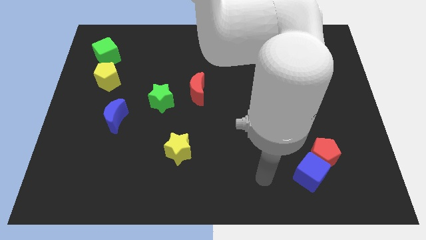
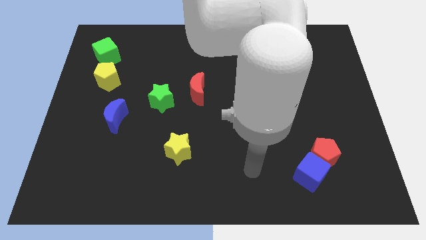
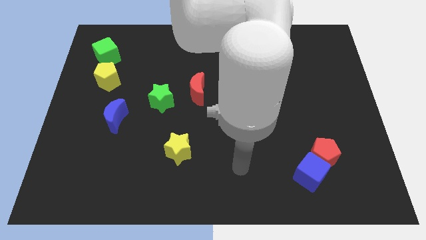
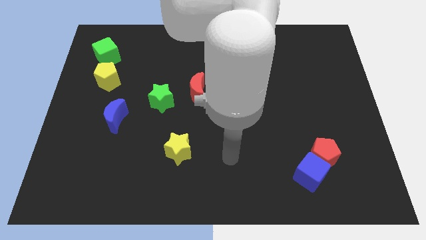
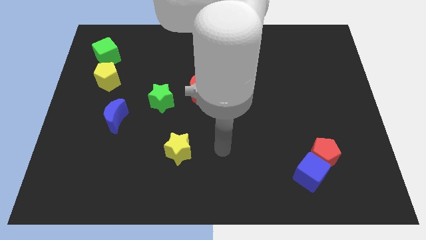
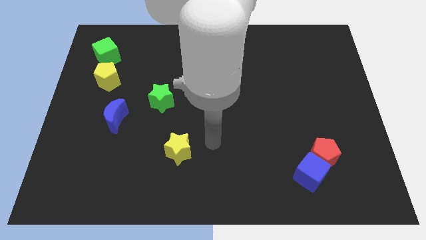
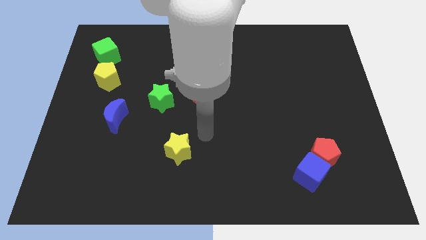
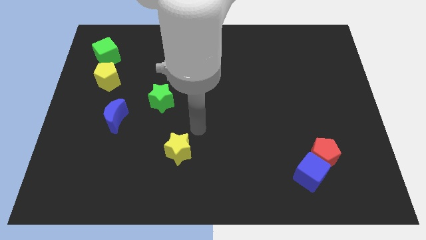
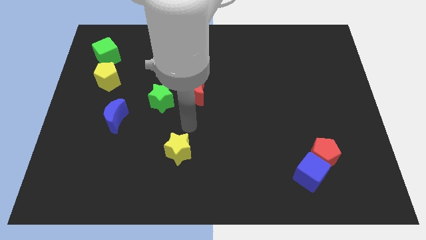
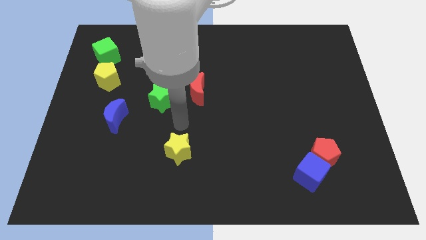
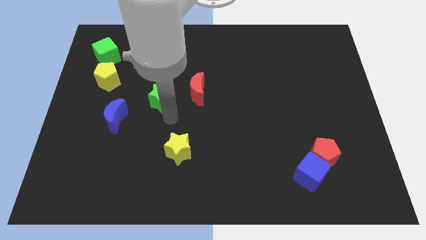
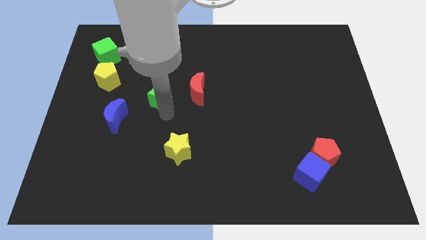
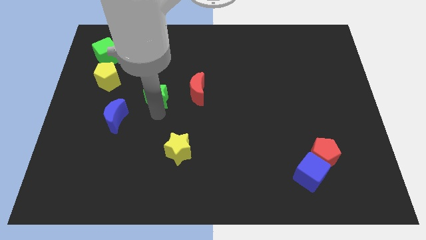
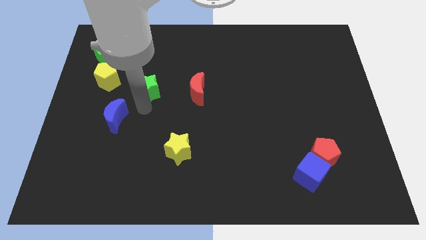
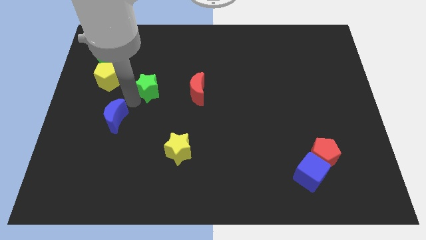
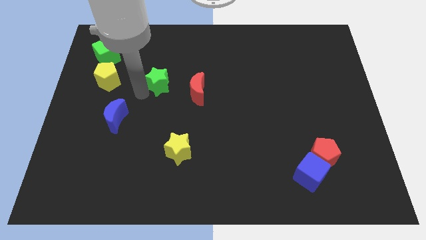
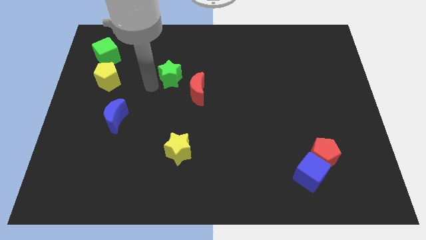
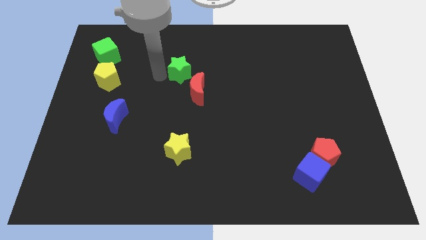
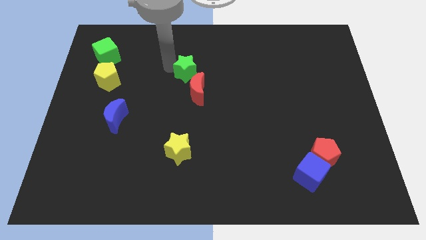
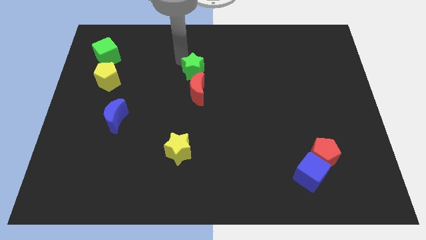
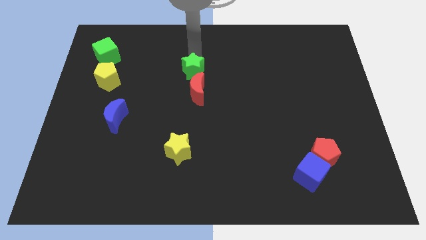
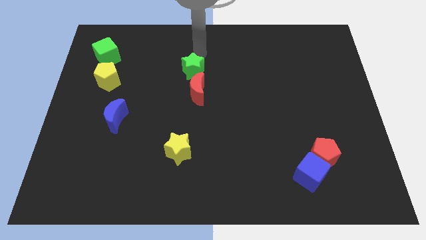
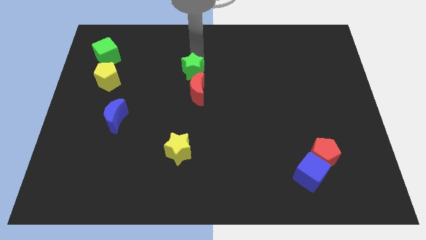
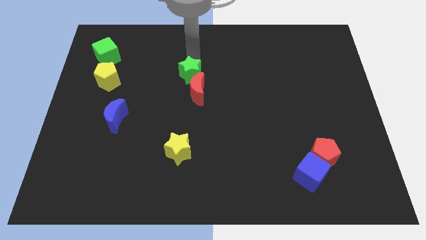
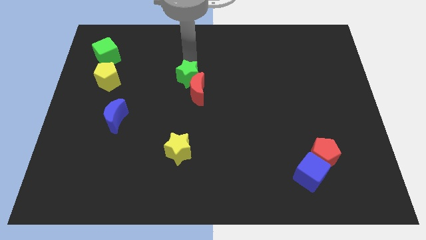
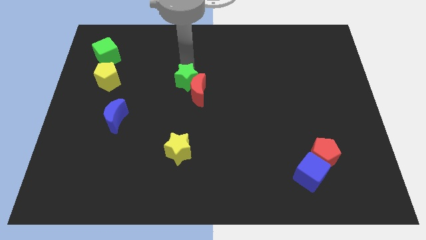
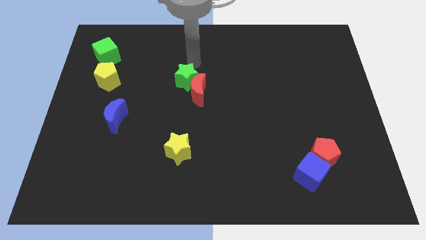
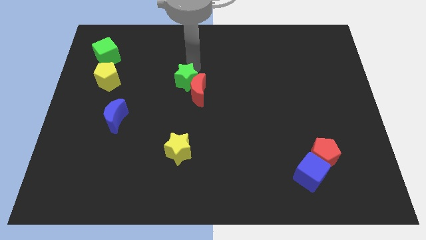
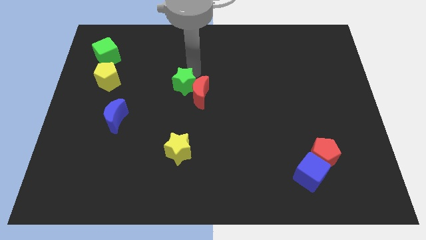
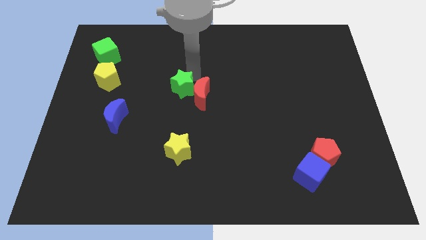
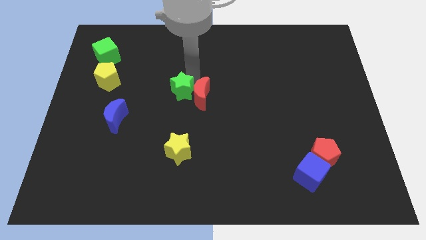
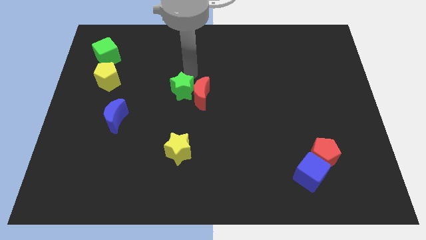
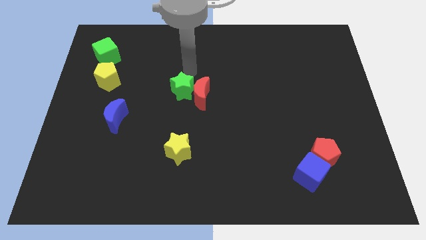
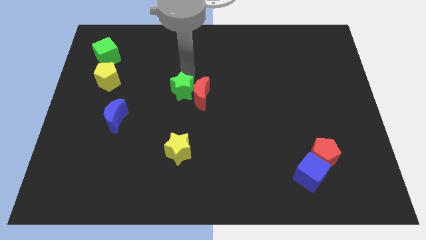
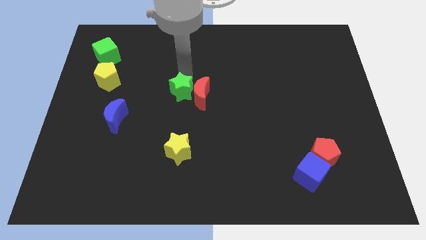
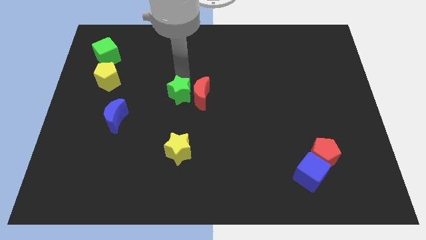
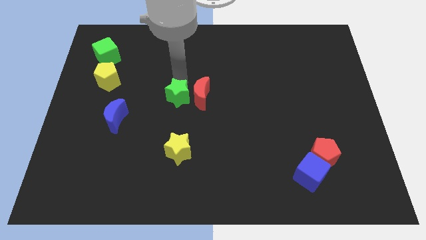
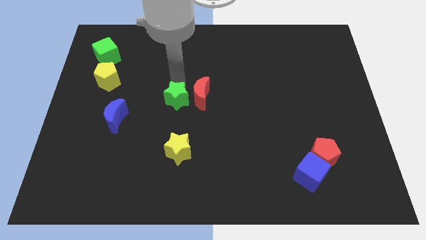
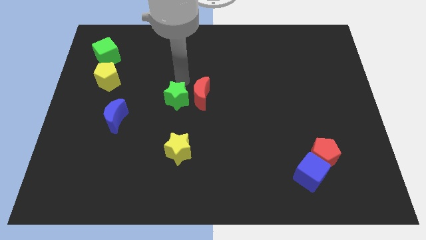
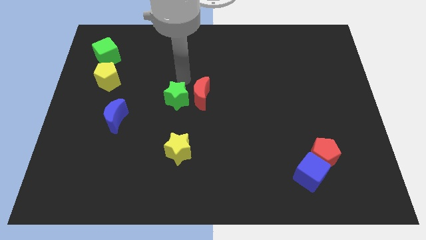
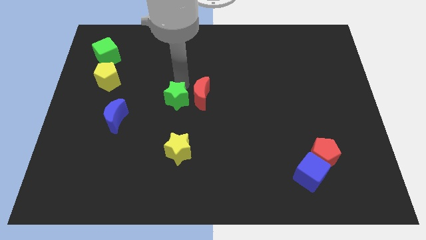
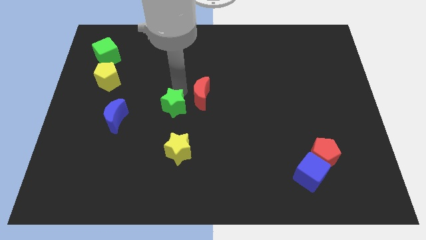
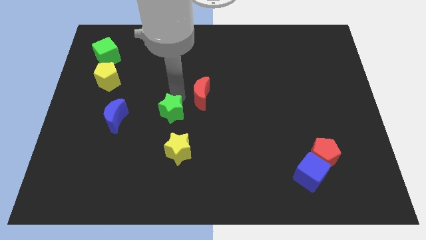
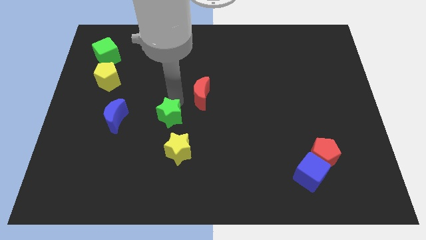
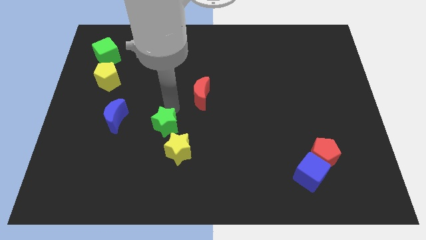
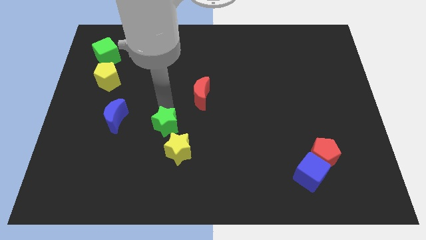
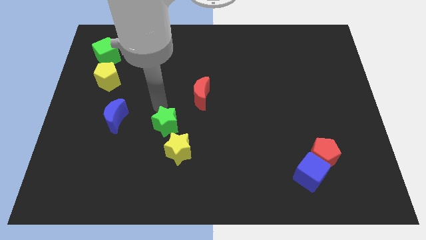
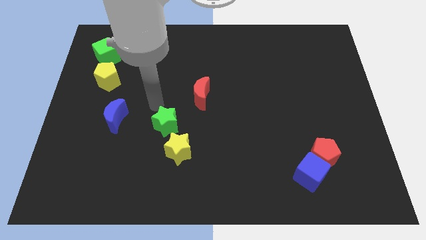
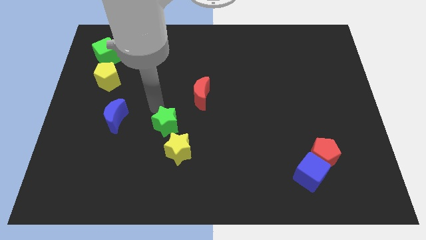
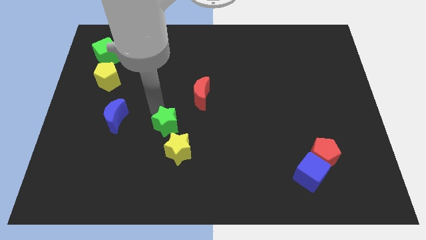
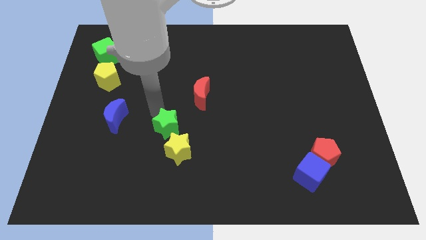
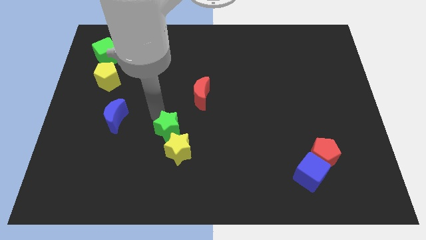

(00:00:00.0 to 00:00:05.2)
put the green star next to the yellow star

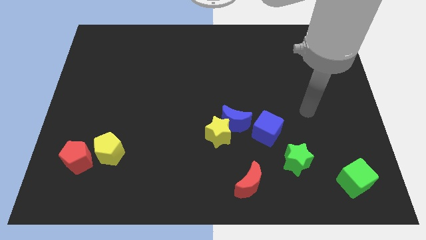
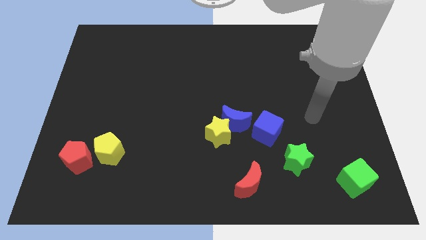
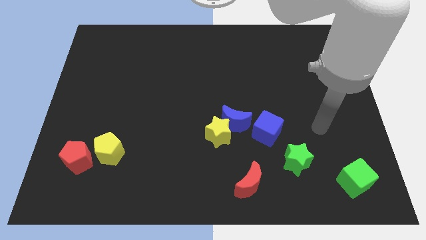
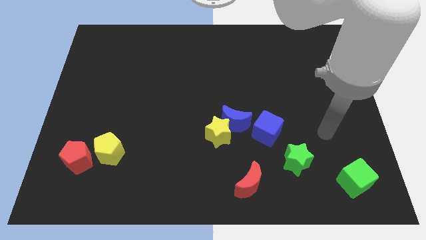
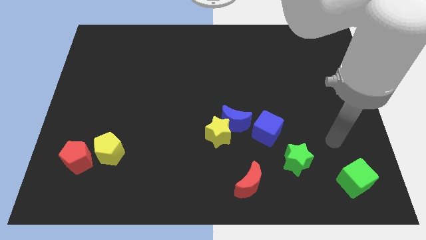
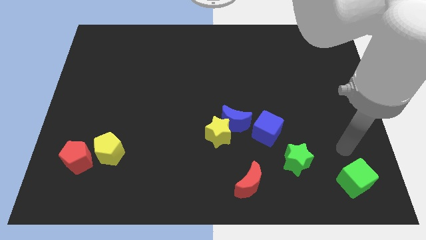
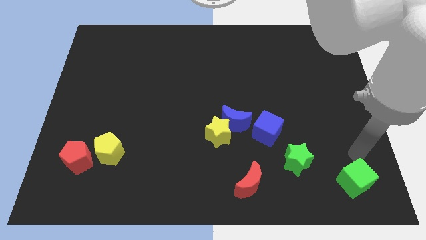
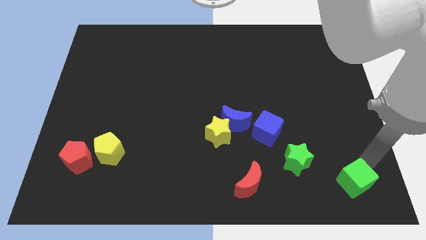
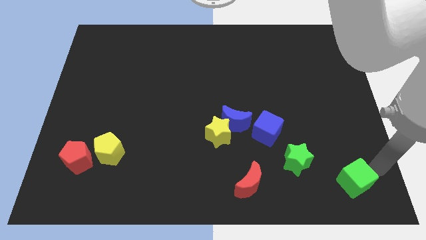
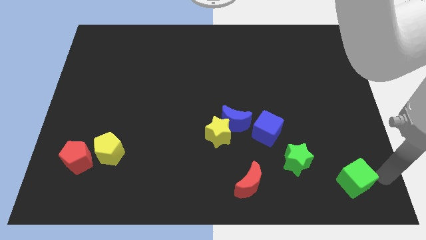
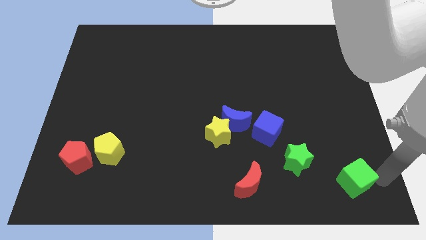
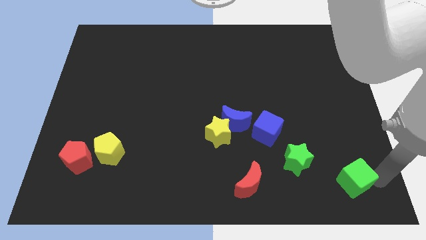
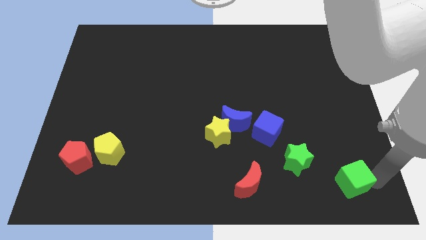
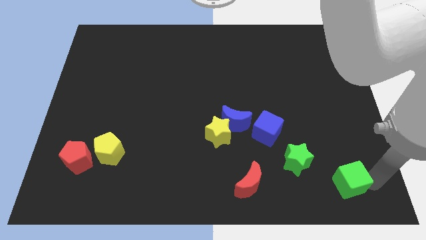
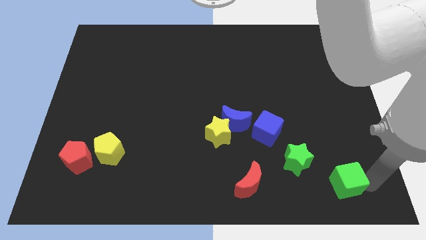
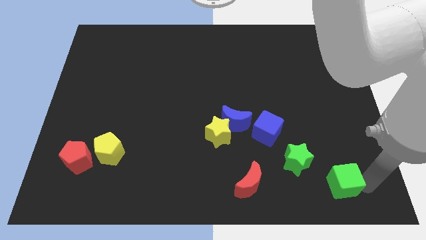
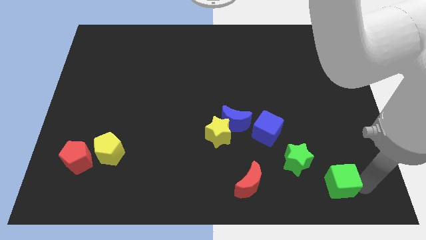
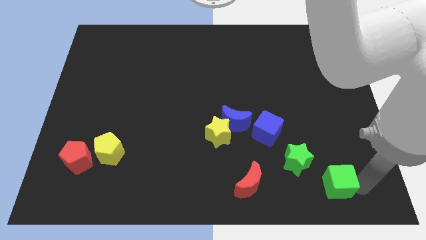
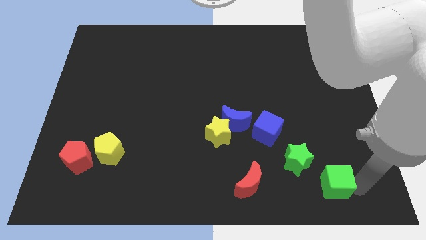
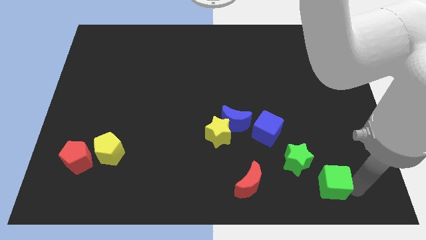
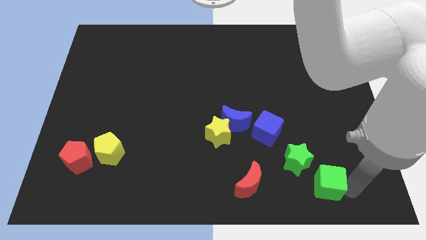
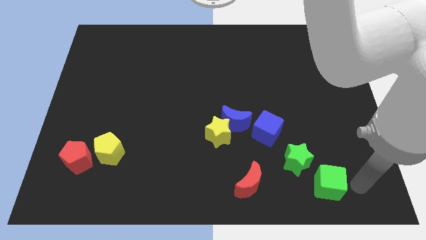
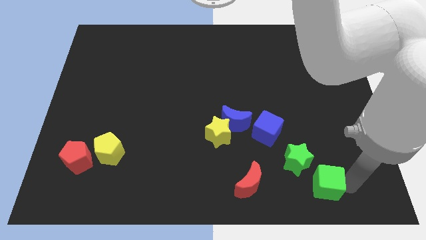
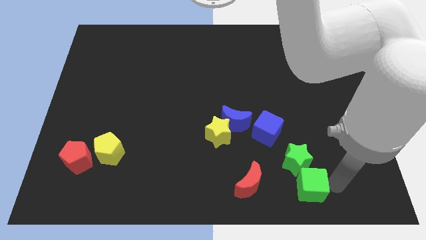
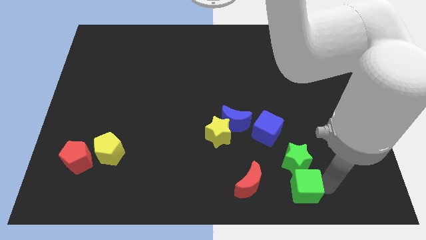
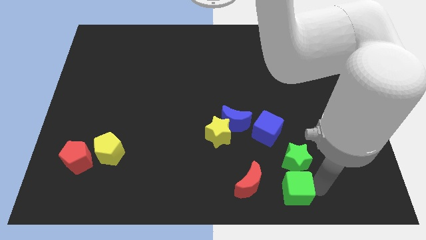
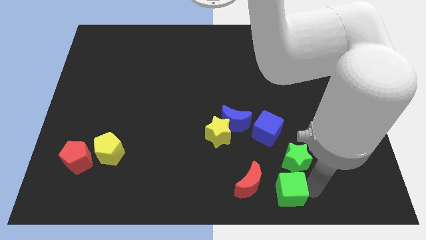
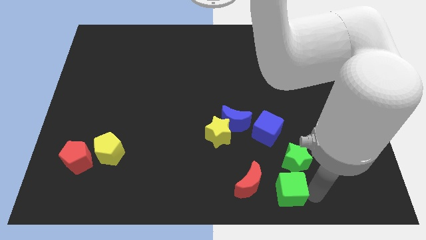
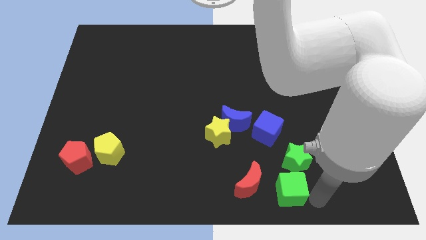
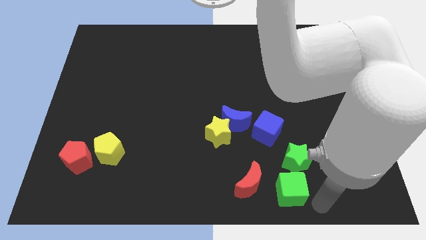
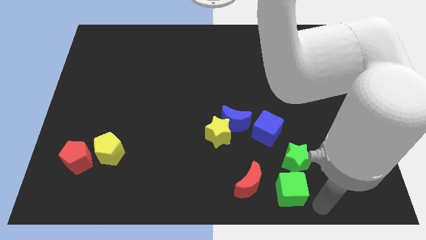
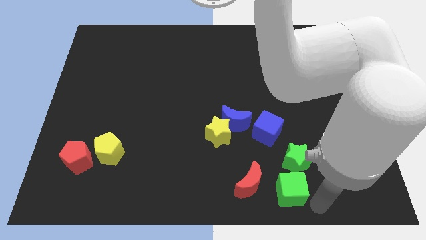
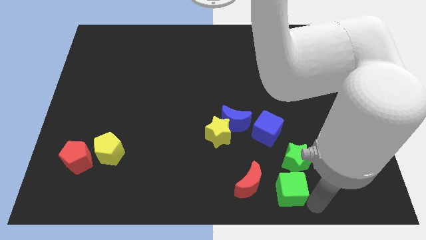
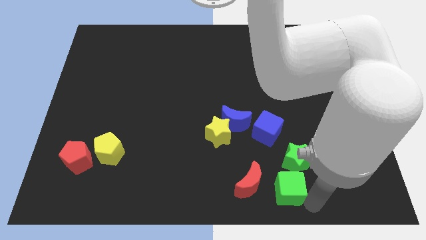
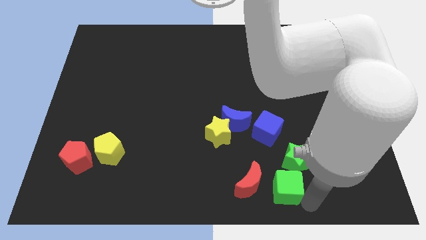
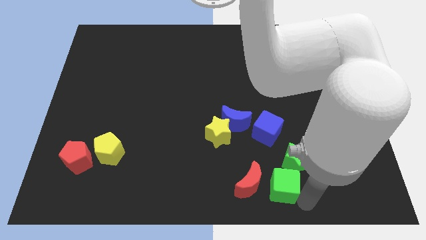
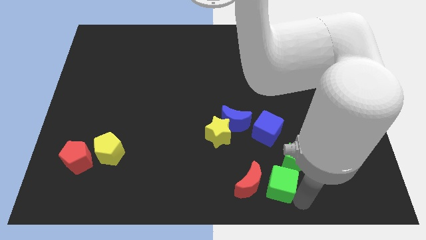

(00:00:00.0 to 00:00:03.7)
put the green cube close to the red moon
